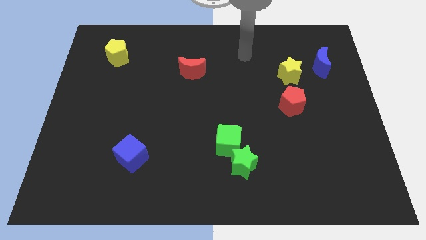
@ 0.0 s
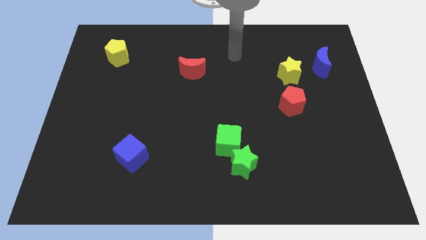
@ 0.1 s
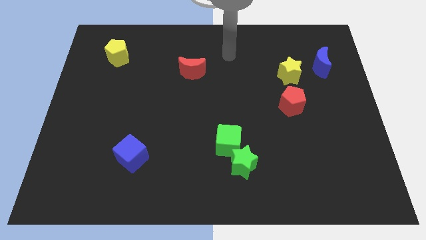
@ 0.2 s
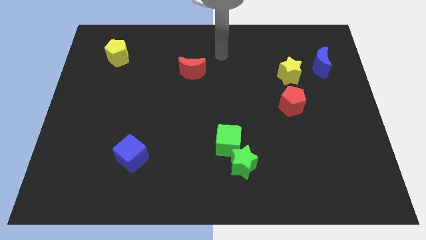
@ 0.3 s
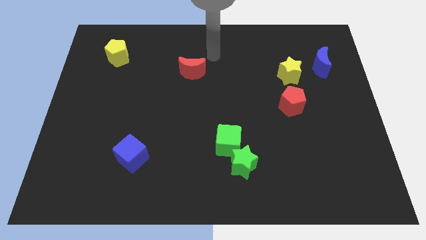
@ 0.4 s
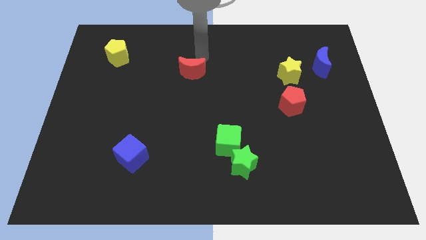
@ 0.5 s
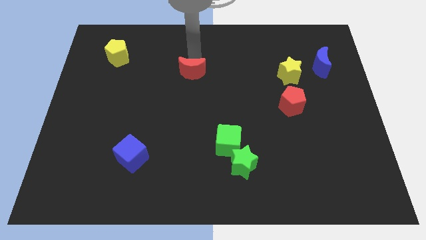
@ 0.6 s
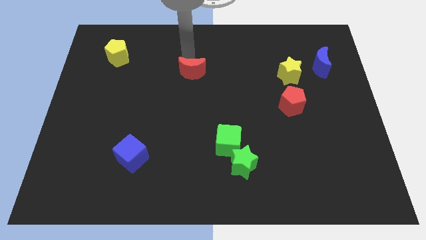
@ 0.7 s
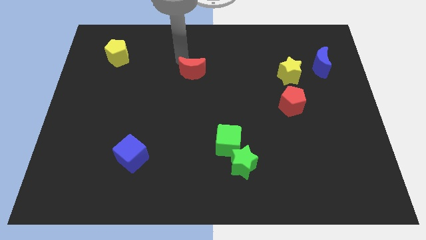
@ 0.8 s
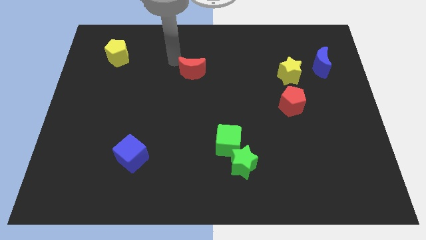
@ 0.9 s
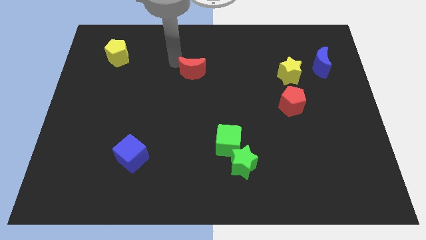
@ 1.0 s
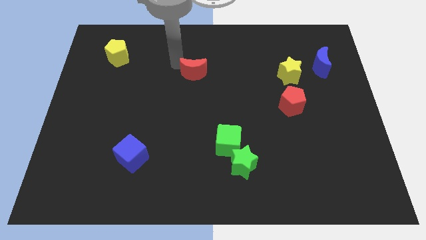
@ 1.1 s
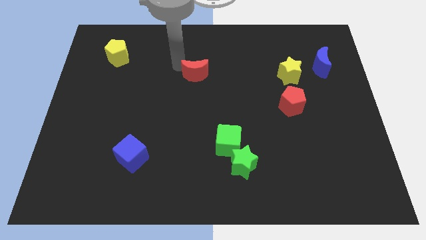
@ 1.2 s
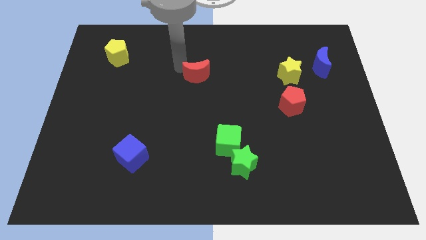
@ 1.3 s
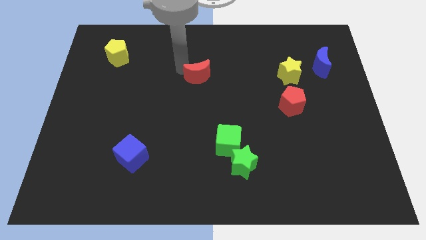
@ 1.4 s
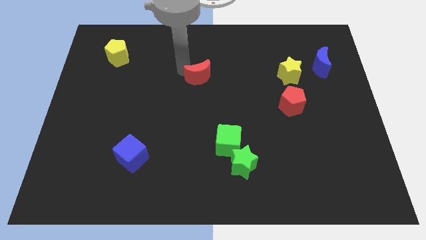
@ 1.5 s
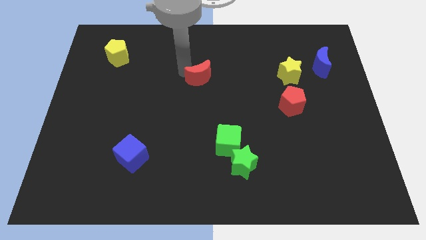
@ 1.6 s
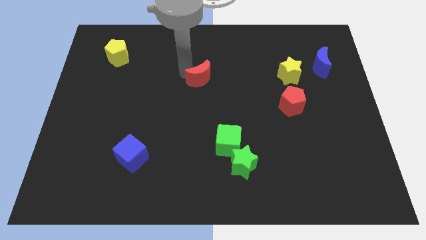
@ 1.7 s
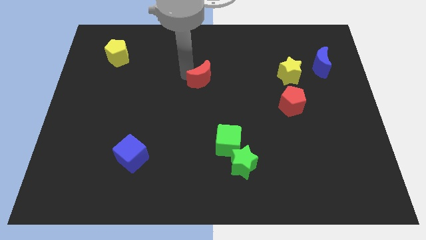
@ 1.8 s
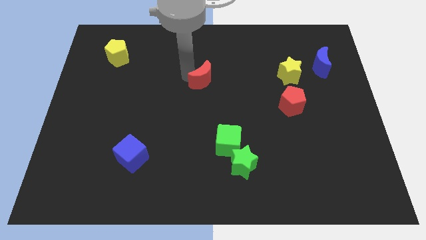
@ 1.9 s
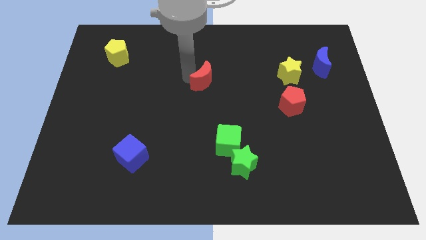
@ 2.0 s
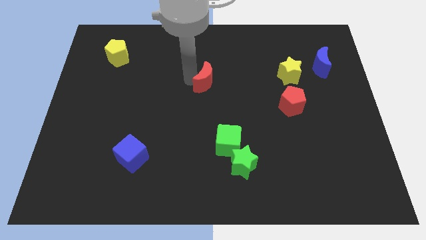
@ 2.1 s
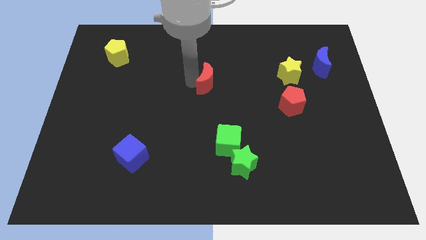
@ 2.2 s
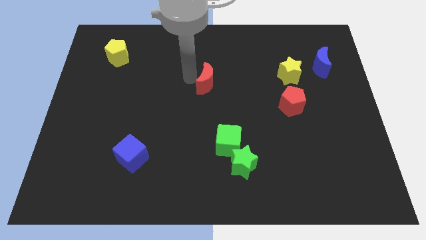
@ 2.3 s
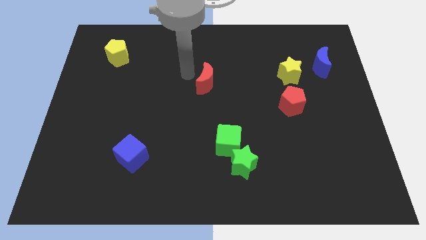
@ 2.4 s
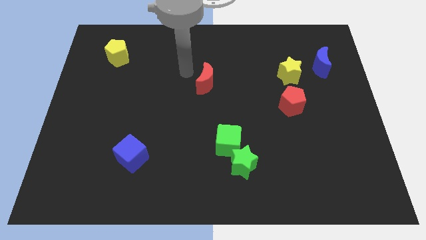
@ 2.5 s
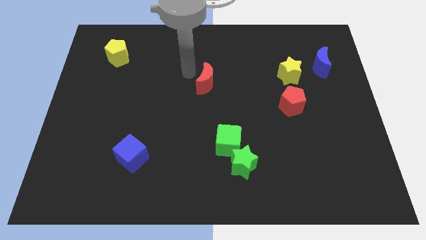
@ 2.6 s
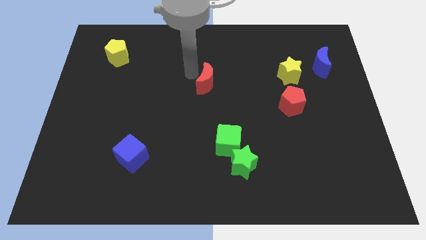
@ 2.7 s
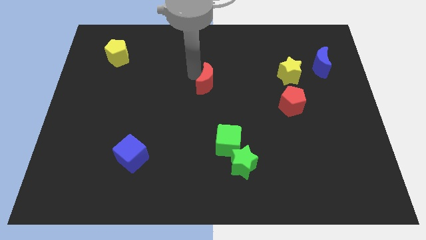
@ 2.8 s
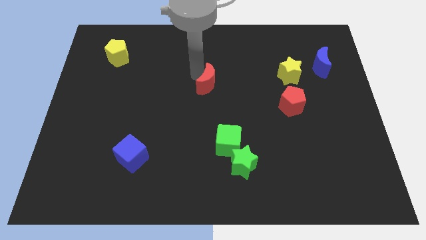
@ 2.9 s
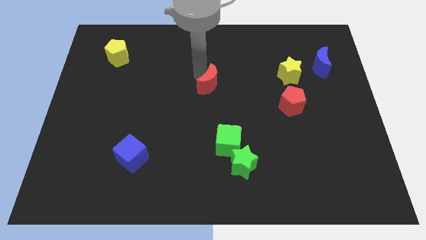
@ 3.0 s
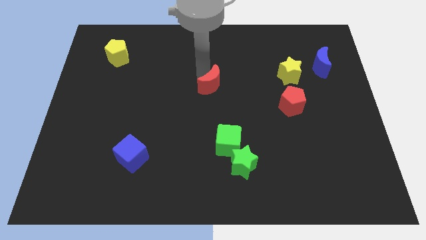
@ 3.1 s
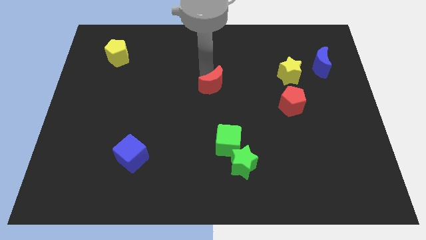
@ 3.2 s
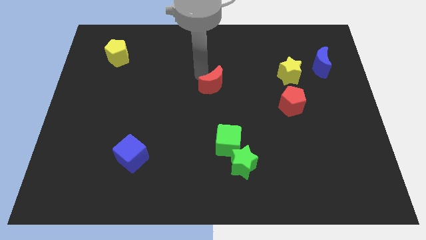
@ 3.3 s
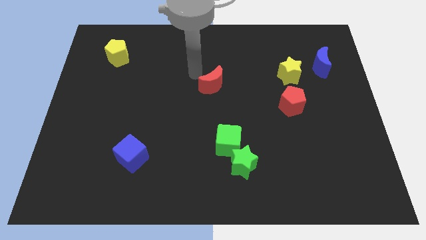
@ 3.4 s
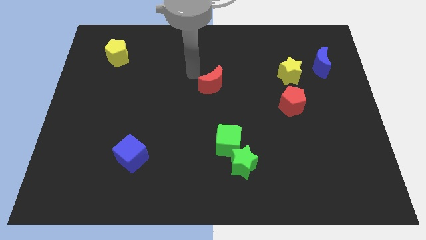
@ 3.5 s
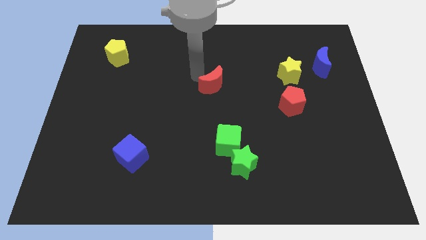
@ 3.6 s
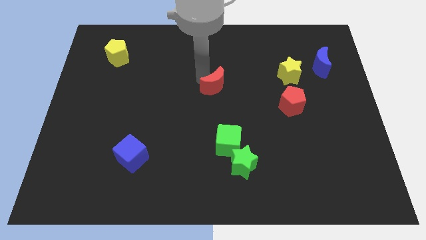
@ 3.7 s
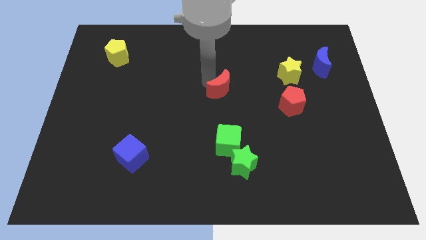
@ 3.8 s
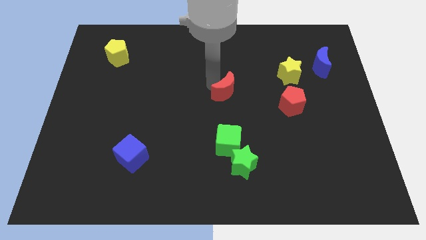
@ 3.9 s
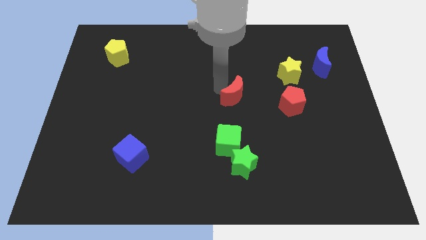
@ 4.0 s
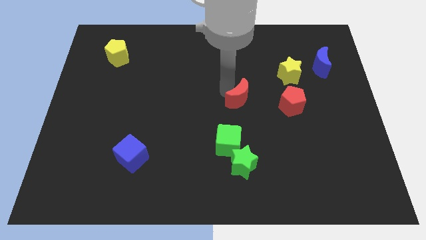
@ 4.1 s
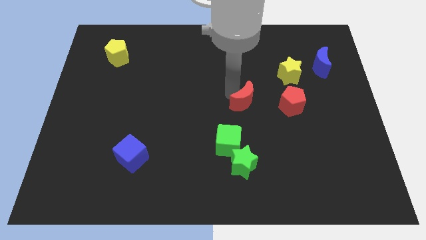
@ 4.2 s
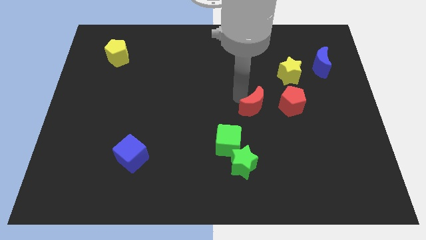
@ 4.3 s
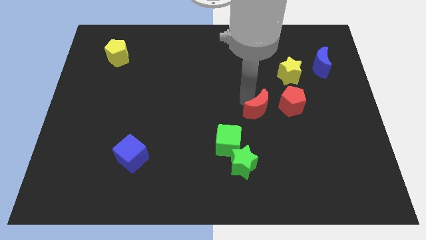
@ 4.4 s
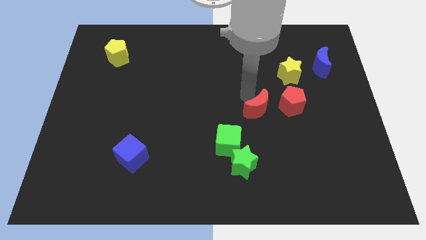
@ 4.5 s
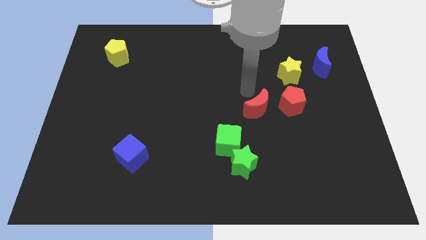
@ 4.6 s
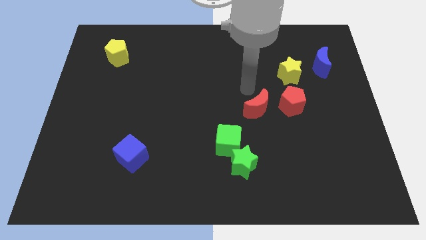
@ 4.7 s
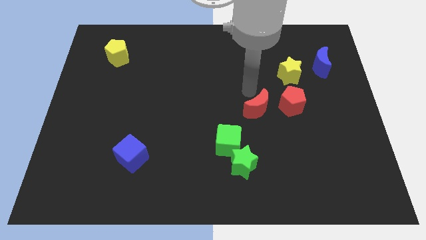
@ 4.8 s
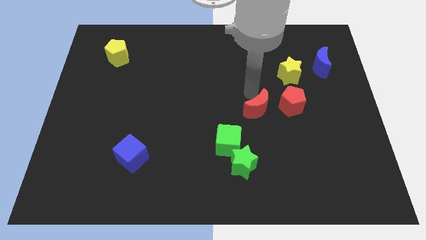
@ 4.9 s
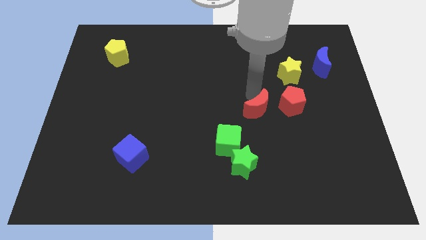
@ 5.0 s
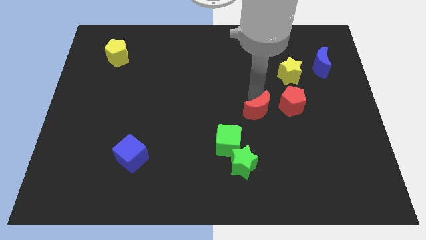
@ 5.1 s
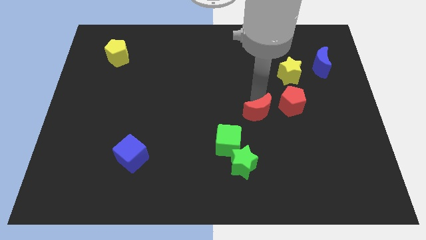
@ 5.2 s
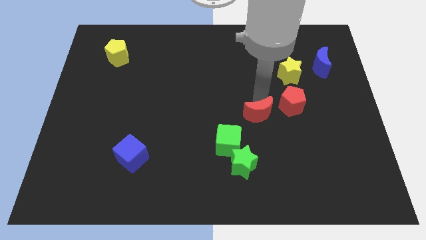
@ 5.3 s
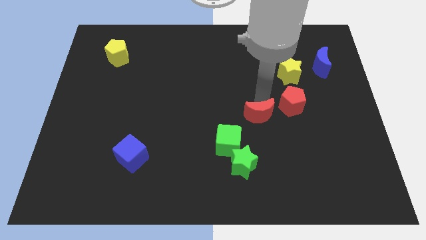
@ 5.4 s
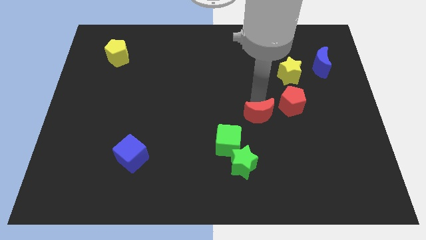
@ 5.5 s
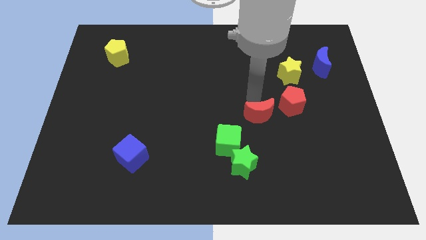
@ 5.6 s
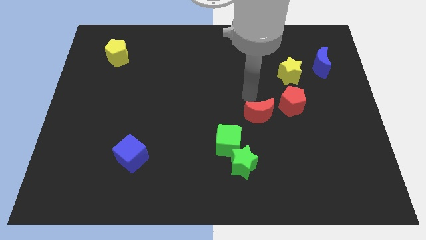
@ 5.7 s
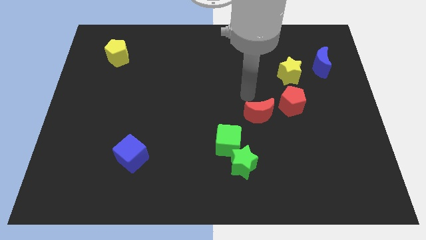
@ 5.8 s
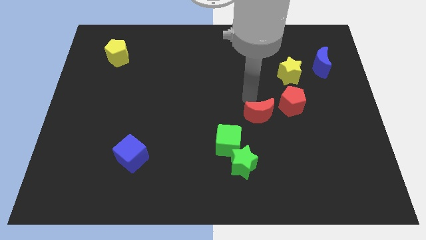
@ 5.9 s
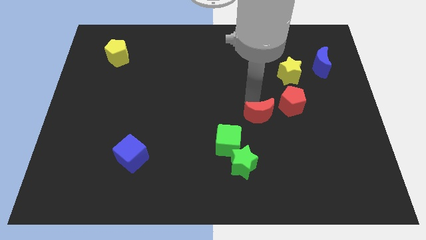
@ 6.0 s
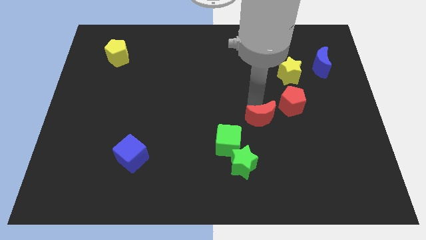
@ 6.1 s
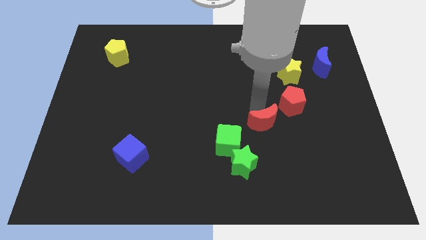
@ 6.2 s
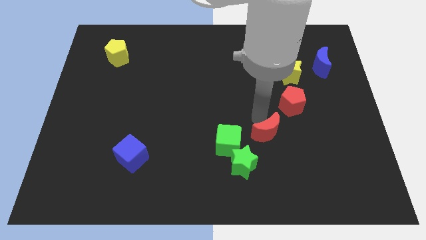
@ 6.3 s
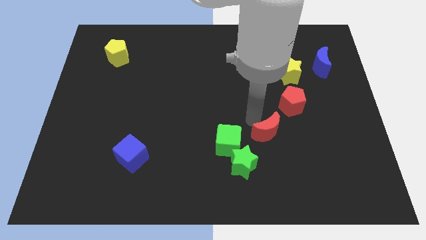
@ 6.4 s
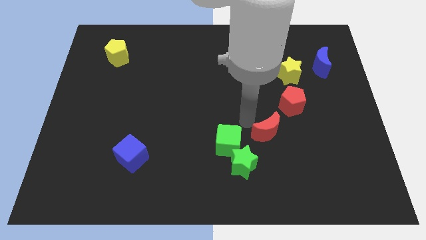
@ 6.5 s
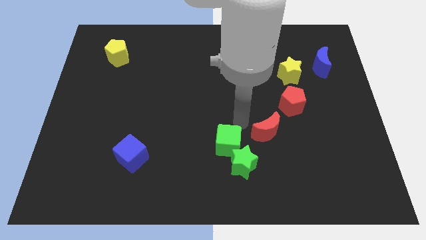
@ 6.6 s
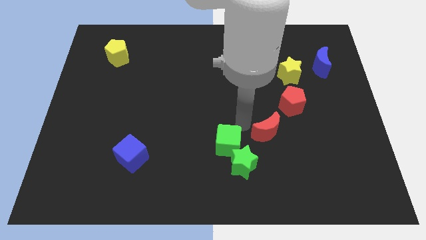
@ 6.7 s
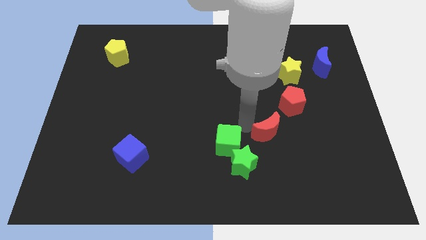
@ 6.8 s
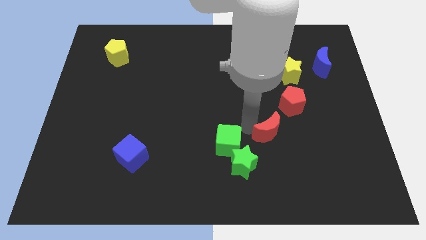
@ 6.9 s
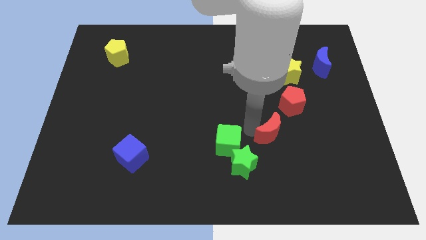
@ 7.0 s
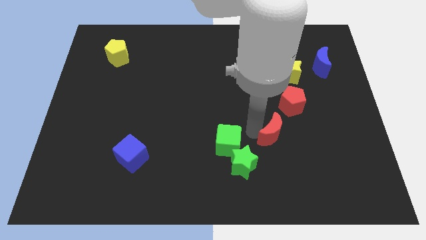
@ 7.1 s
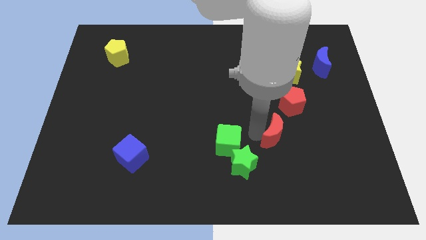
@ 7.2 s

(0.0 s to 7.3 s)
move the red moon below the red pentagon
